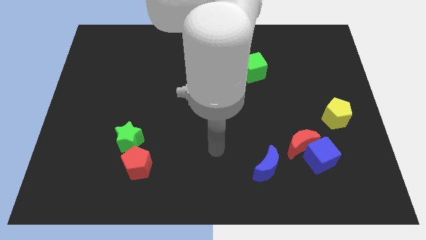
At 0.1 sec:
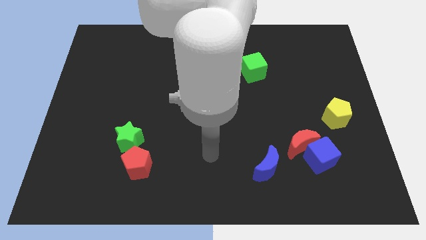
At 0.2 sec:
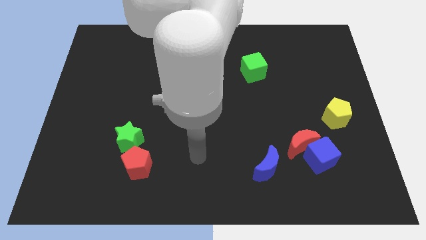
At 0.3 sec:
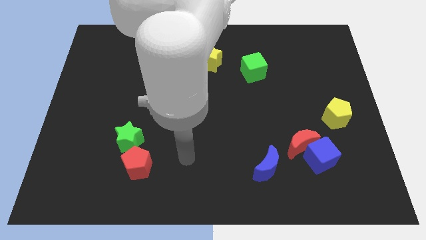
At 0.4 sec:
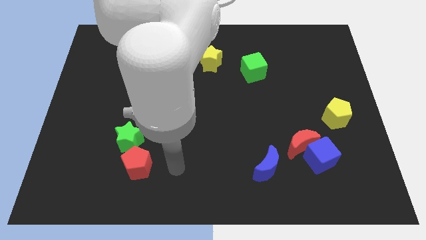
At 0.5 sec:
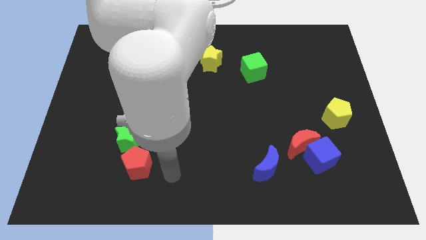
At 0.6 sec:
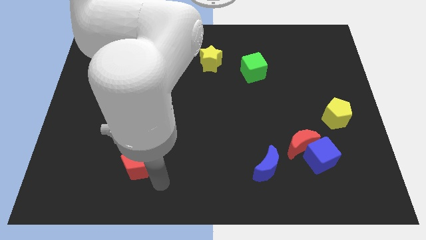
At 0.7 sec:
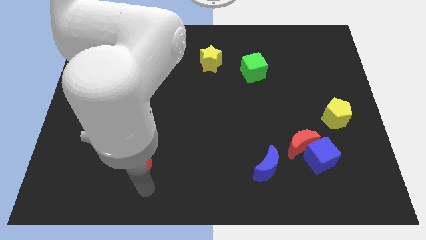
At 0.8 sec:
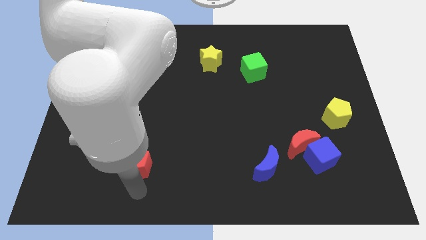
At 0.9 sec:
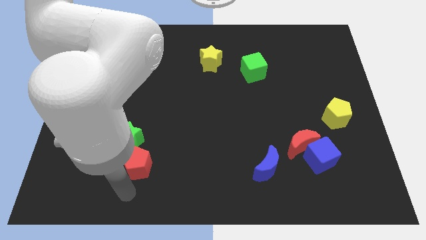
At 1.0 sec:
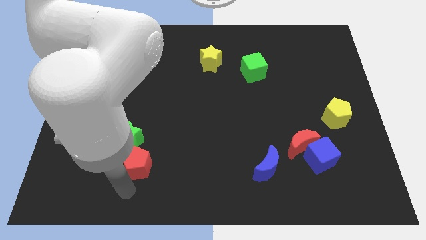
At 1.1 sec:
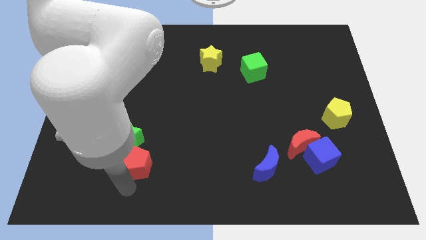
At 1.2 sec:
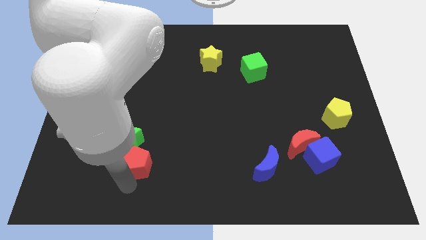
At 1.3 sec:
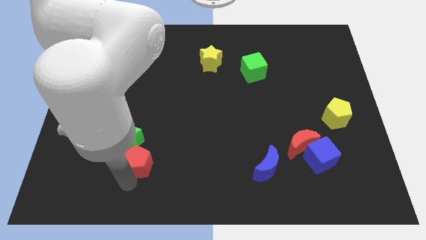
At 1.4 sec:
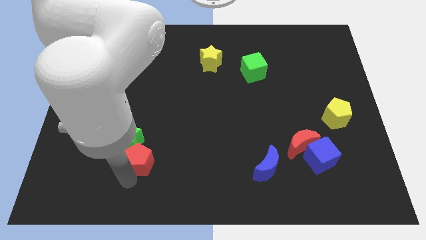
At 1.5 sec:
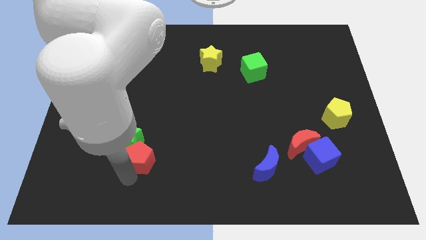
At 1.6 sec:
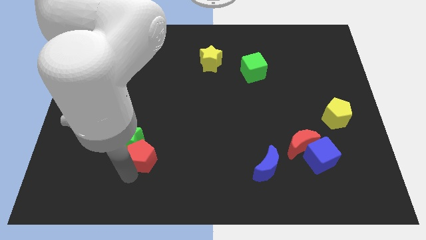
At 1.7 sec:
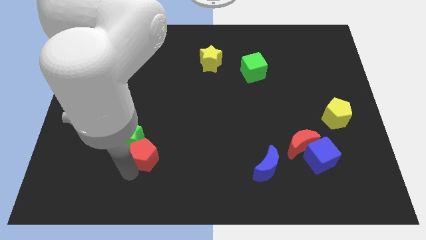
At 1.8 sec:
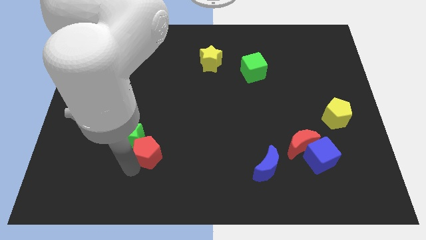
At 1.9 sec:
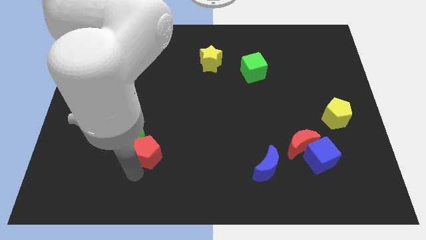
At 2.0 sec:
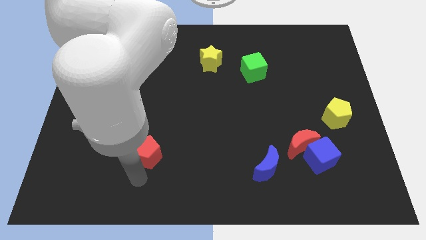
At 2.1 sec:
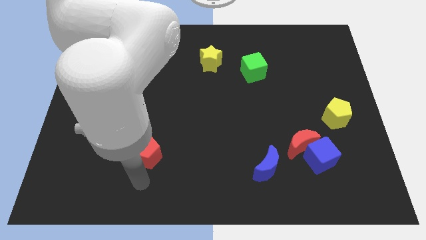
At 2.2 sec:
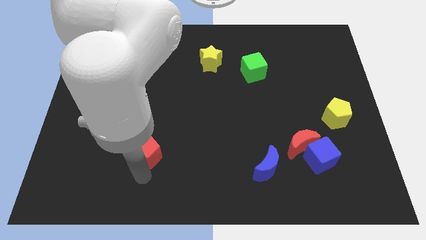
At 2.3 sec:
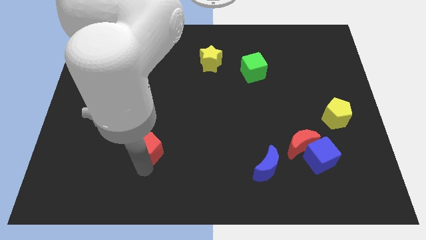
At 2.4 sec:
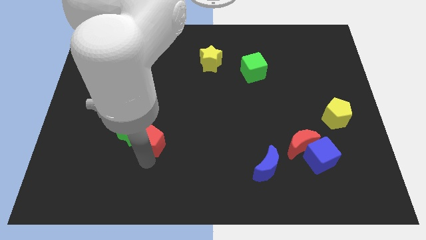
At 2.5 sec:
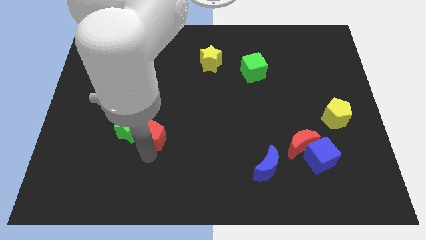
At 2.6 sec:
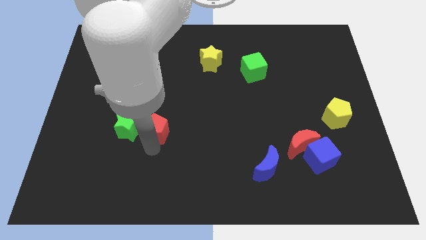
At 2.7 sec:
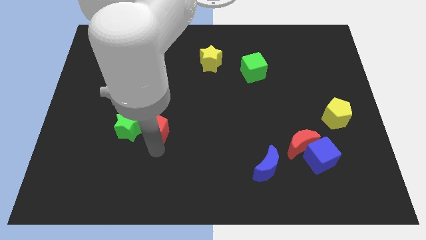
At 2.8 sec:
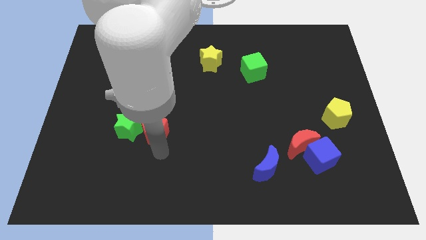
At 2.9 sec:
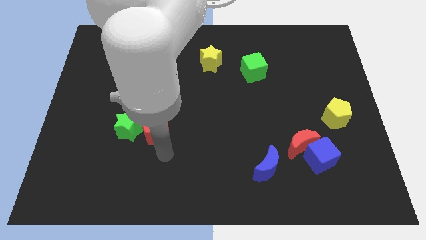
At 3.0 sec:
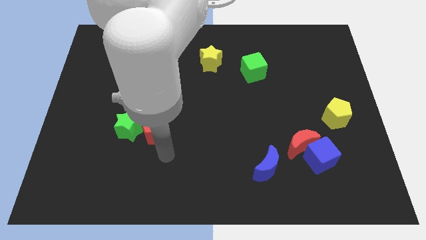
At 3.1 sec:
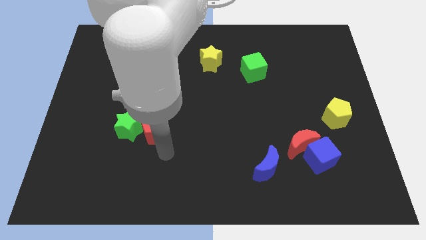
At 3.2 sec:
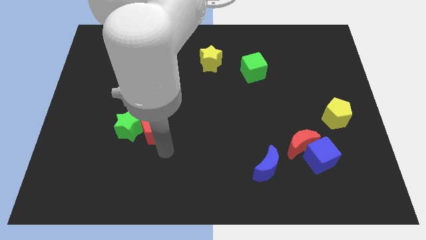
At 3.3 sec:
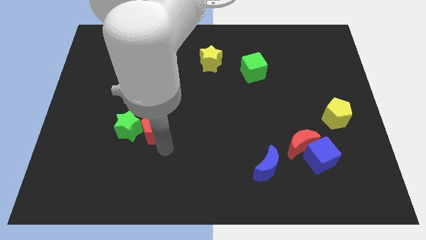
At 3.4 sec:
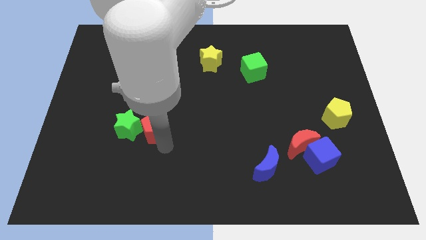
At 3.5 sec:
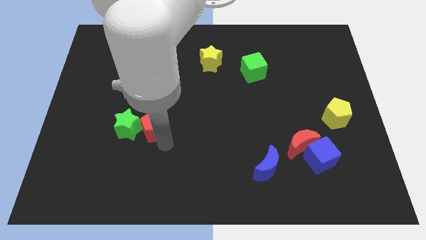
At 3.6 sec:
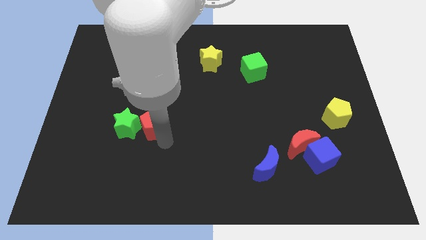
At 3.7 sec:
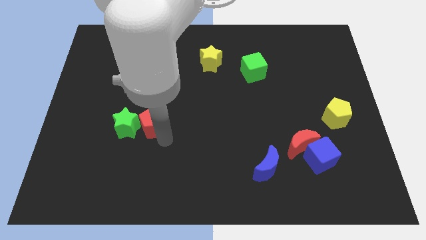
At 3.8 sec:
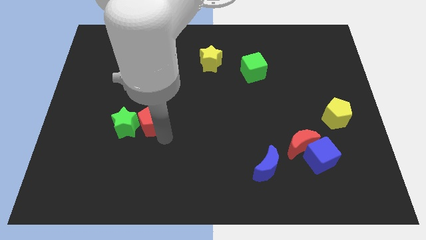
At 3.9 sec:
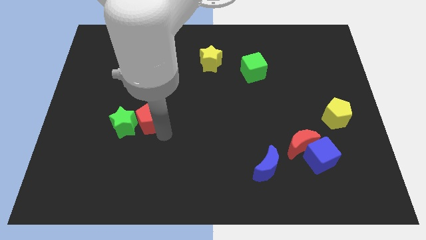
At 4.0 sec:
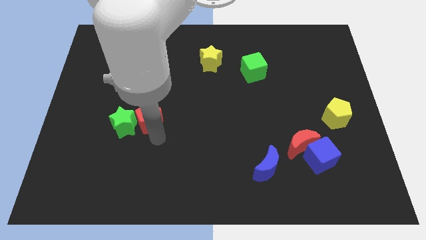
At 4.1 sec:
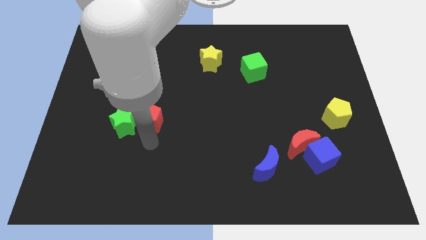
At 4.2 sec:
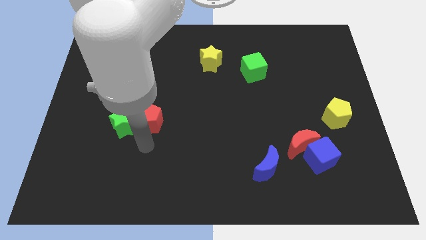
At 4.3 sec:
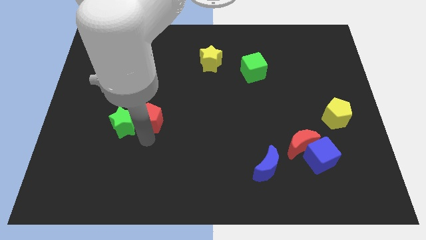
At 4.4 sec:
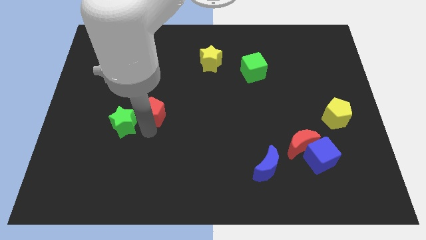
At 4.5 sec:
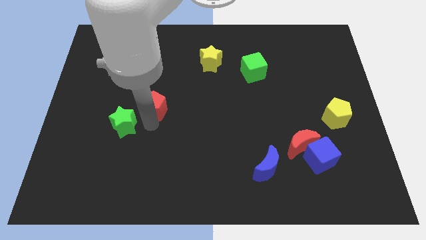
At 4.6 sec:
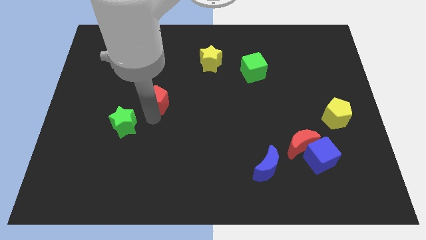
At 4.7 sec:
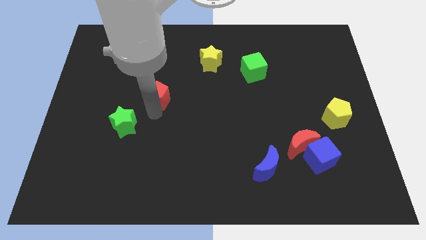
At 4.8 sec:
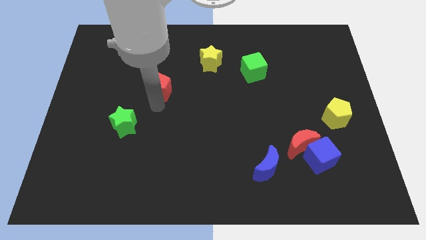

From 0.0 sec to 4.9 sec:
slide the red pentagon upwards

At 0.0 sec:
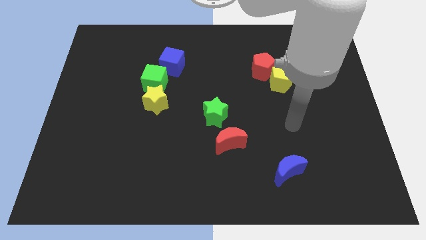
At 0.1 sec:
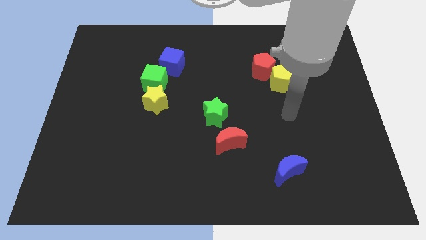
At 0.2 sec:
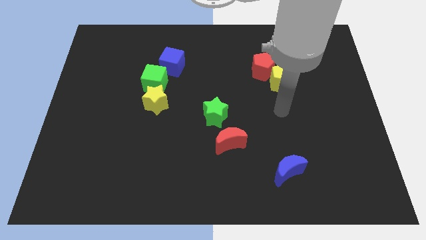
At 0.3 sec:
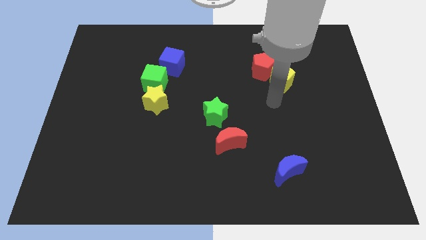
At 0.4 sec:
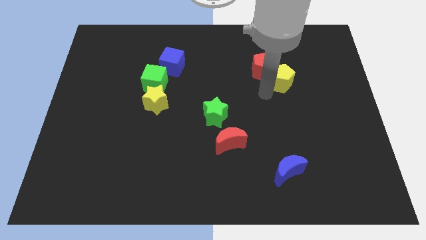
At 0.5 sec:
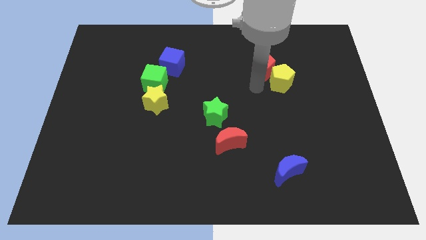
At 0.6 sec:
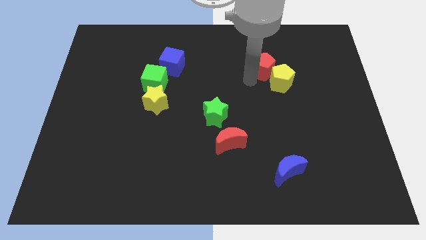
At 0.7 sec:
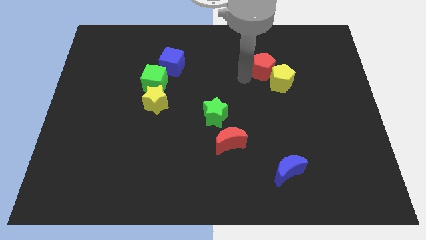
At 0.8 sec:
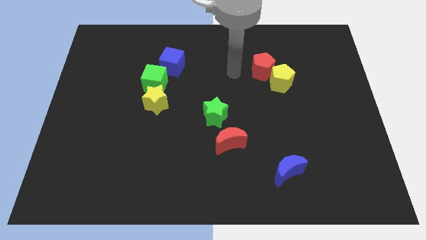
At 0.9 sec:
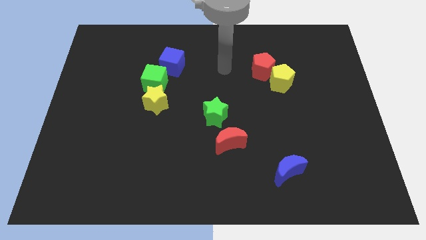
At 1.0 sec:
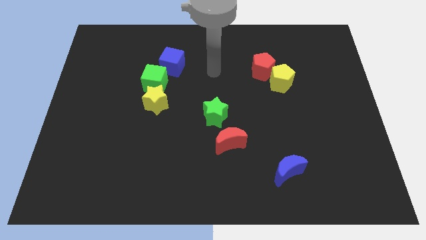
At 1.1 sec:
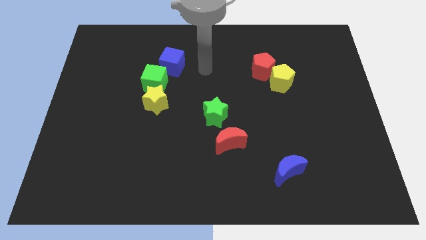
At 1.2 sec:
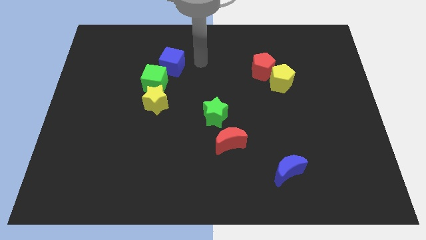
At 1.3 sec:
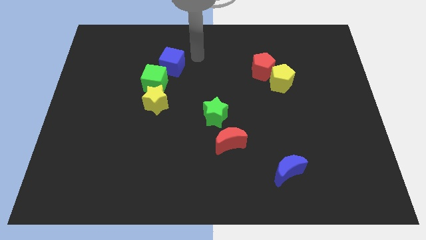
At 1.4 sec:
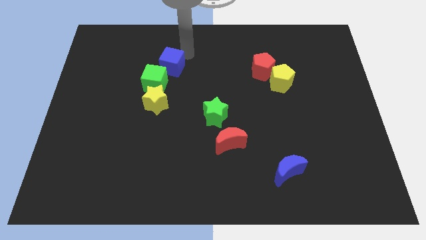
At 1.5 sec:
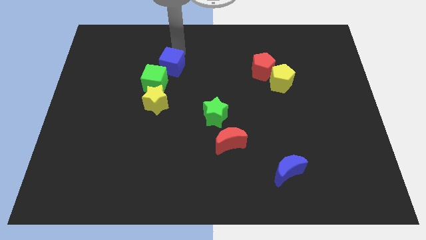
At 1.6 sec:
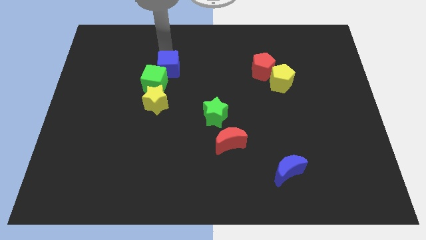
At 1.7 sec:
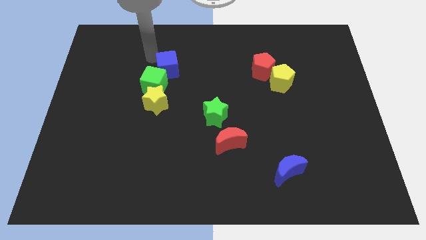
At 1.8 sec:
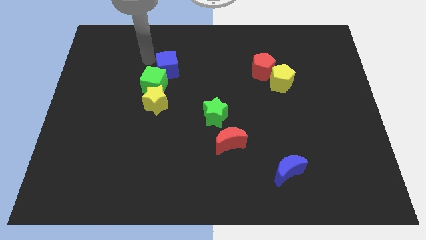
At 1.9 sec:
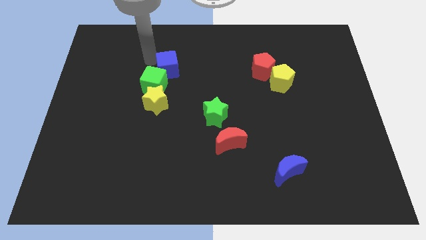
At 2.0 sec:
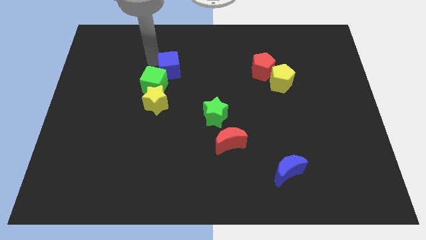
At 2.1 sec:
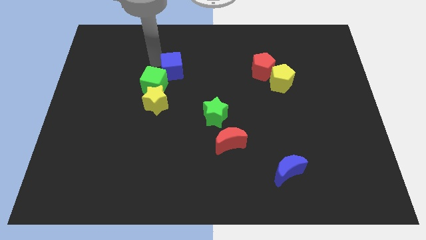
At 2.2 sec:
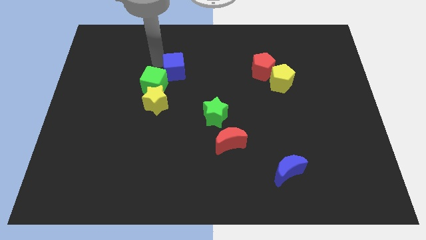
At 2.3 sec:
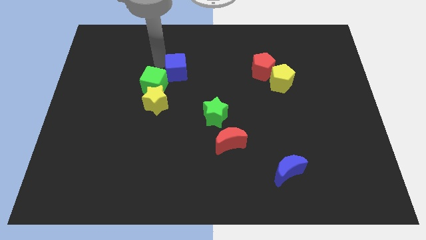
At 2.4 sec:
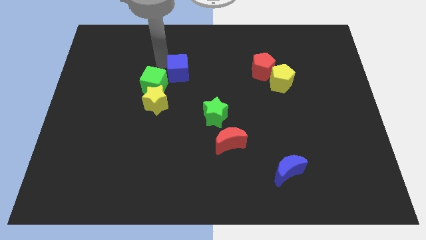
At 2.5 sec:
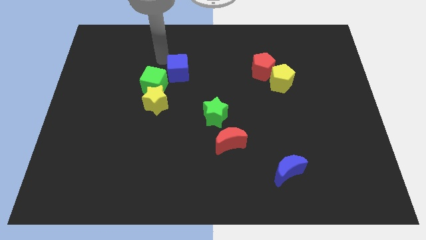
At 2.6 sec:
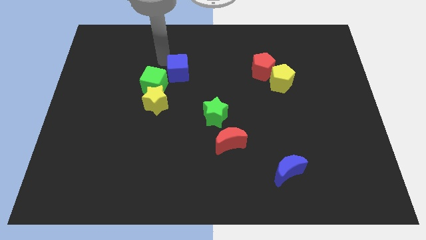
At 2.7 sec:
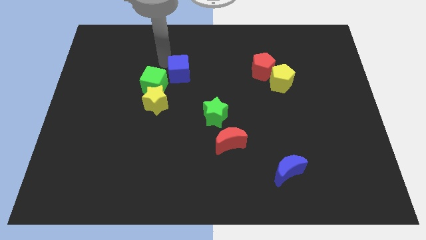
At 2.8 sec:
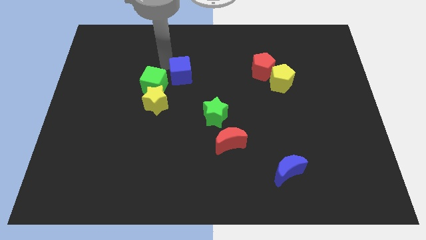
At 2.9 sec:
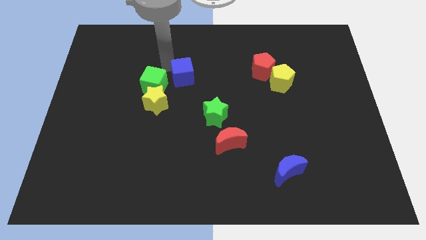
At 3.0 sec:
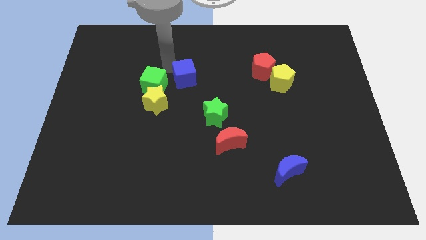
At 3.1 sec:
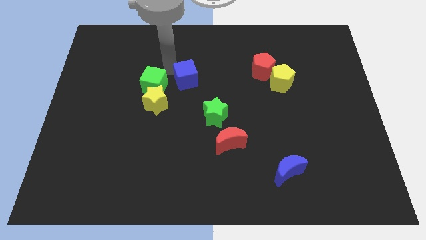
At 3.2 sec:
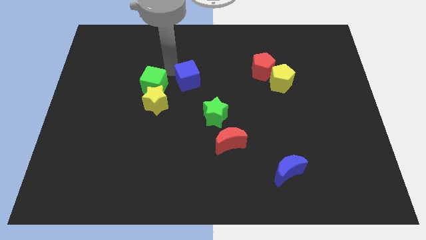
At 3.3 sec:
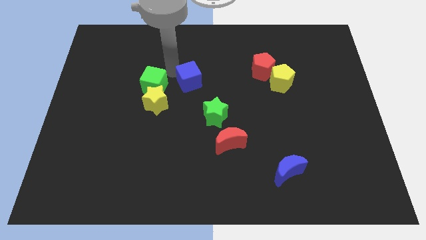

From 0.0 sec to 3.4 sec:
move the blue cube down and then to the right a little bit
